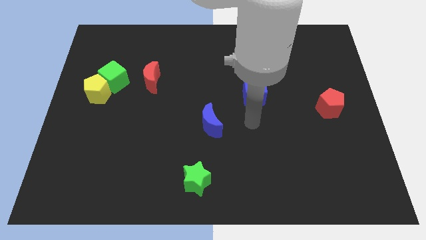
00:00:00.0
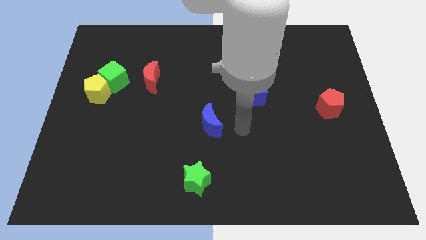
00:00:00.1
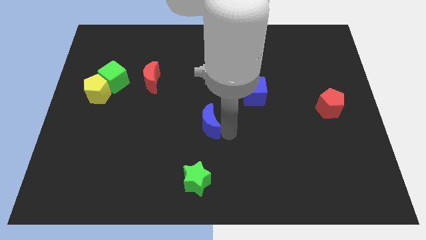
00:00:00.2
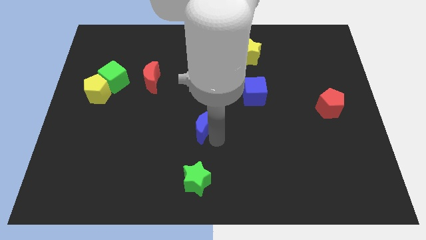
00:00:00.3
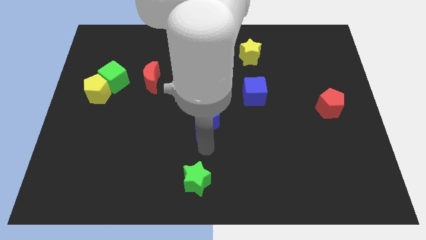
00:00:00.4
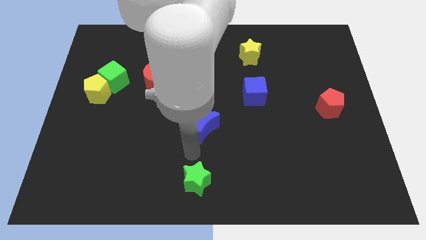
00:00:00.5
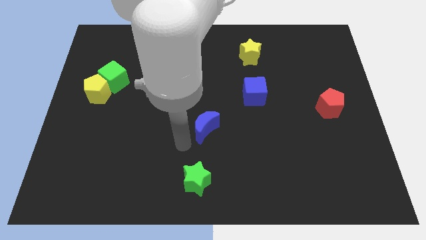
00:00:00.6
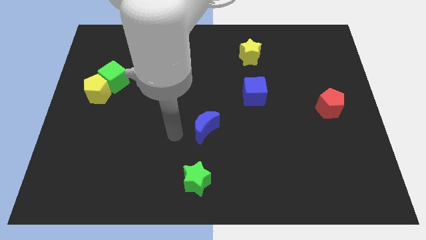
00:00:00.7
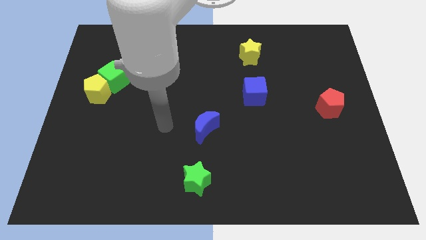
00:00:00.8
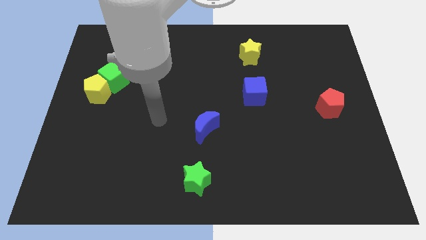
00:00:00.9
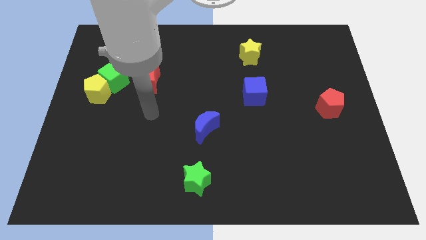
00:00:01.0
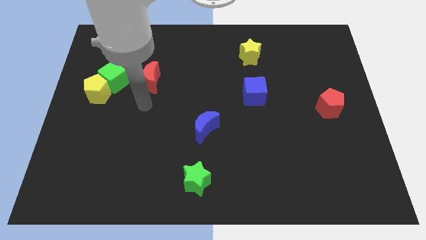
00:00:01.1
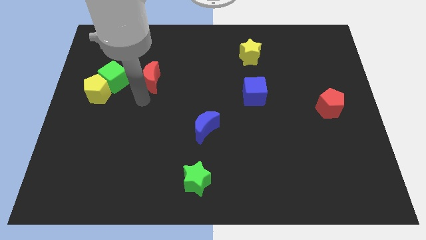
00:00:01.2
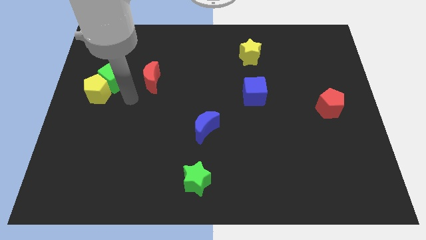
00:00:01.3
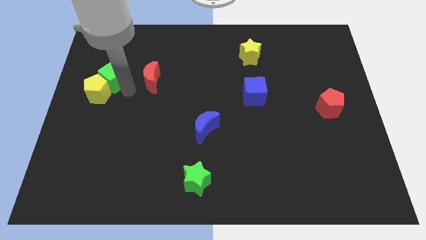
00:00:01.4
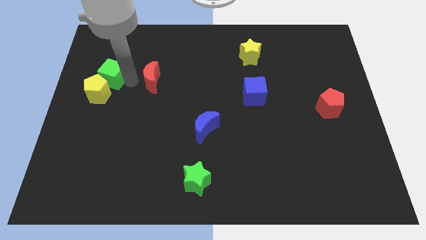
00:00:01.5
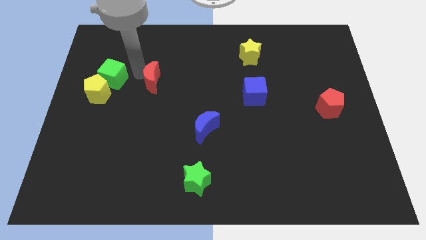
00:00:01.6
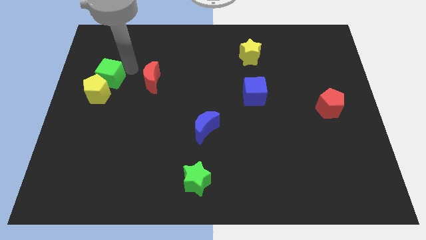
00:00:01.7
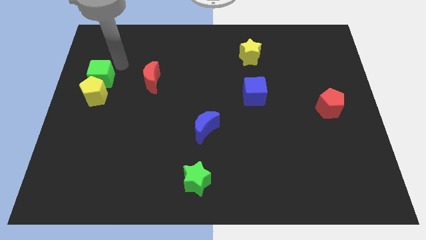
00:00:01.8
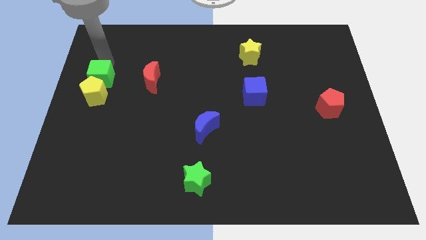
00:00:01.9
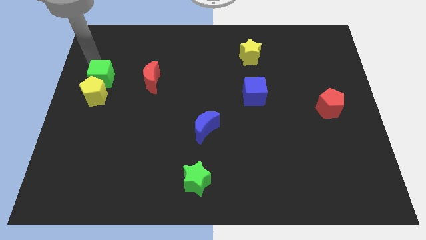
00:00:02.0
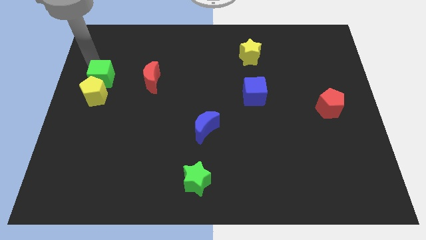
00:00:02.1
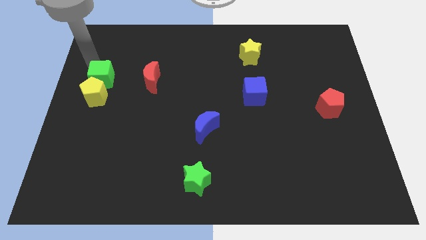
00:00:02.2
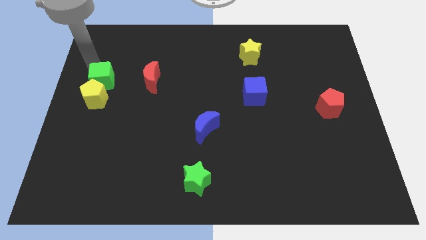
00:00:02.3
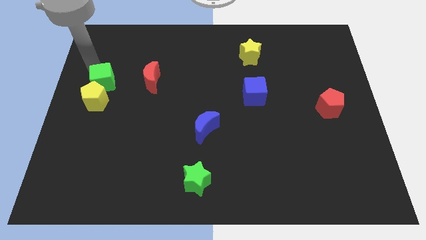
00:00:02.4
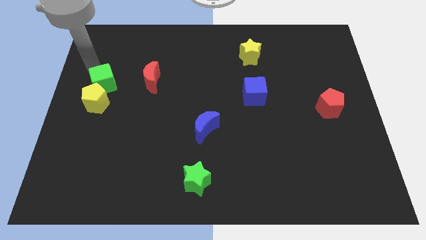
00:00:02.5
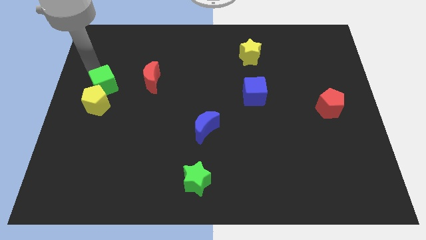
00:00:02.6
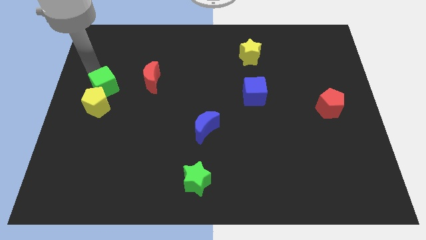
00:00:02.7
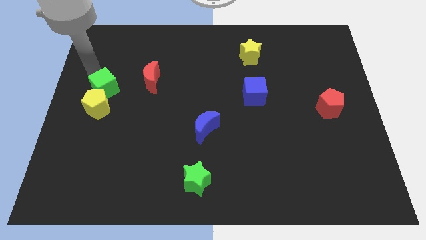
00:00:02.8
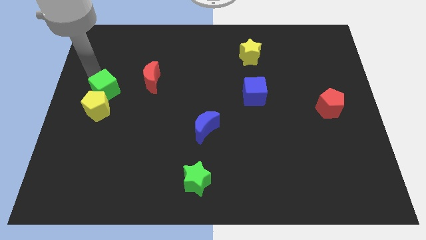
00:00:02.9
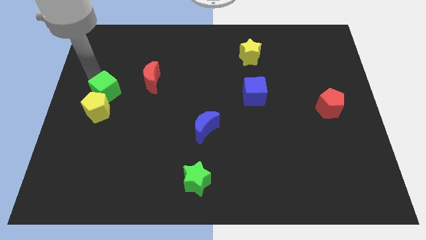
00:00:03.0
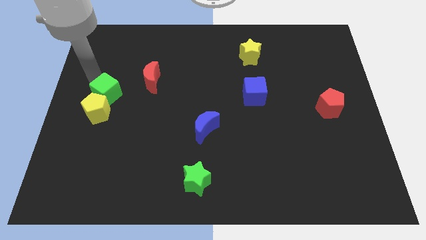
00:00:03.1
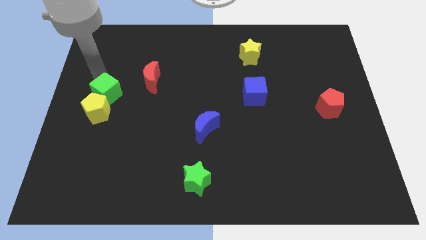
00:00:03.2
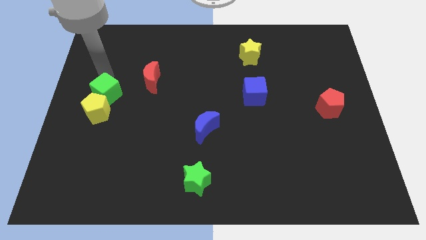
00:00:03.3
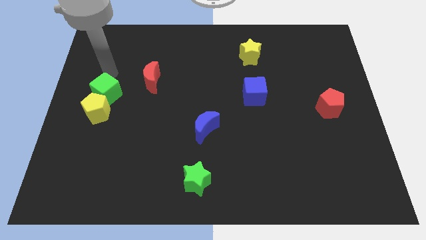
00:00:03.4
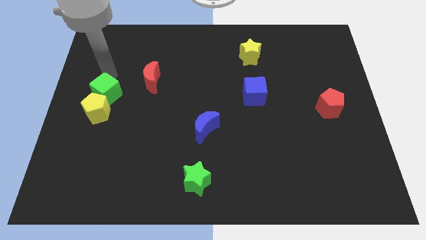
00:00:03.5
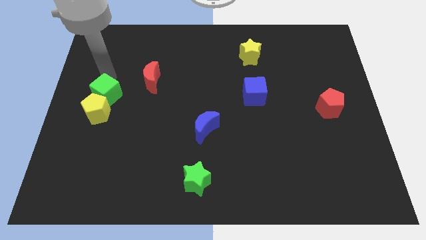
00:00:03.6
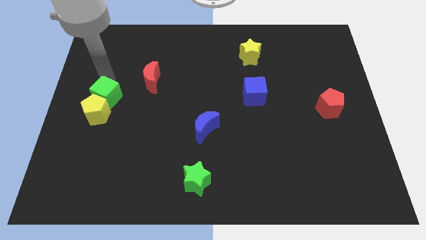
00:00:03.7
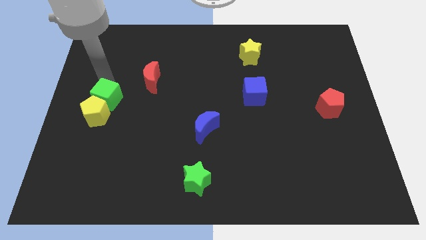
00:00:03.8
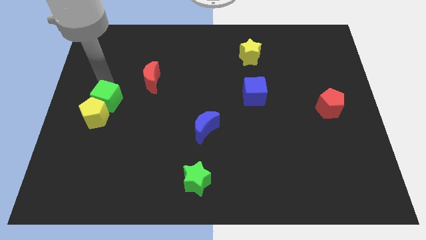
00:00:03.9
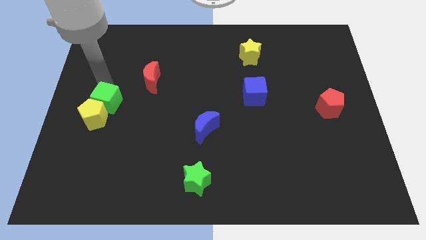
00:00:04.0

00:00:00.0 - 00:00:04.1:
slide the green cube downwards a bit

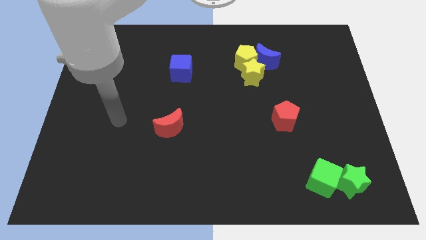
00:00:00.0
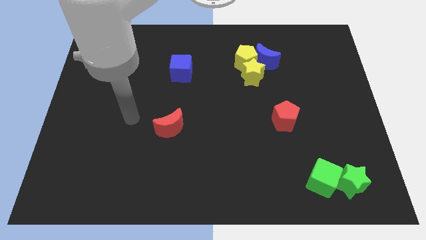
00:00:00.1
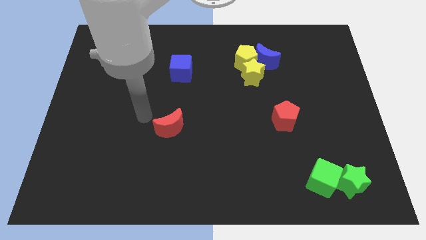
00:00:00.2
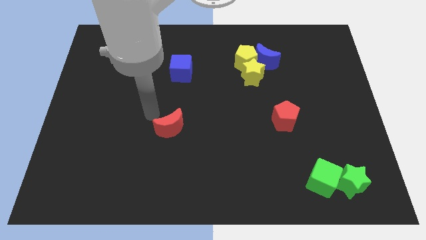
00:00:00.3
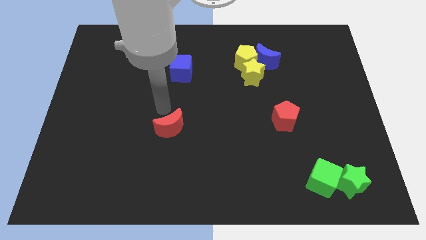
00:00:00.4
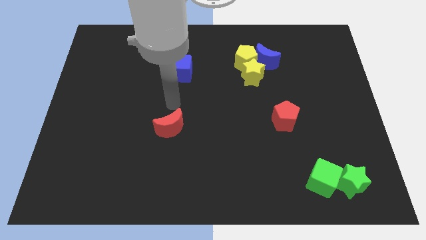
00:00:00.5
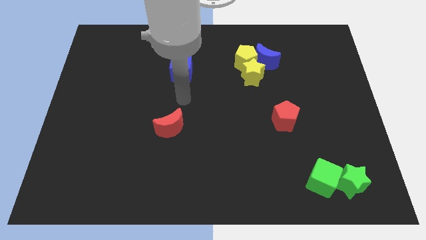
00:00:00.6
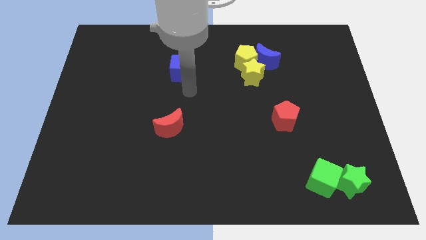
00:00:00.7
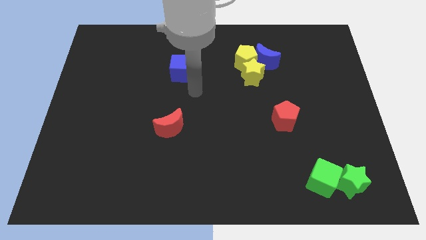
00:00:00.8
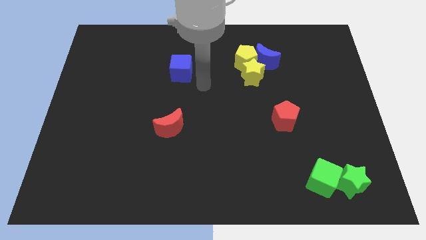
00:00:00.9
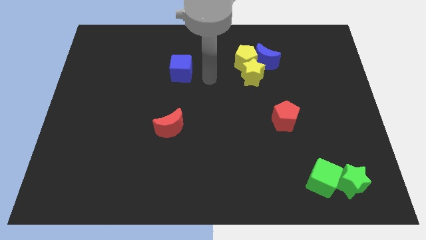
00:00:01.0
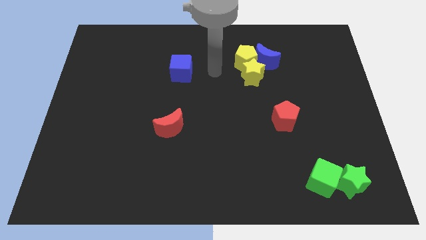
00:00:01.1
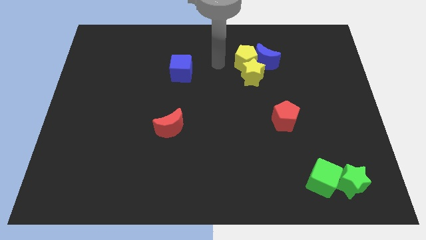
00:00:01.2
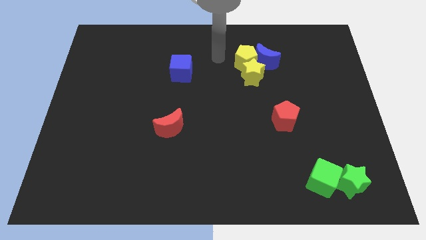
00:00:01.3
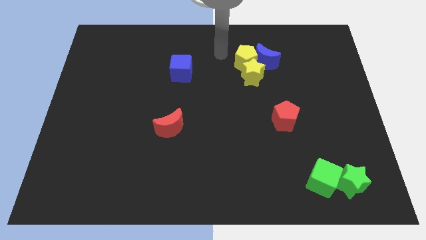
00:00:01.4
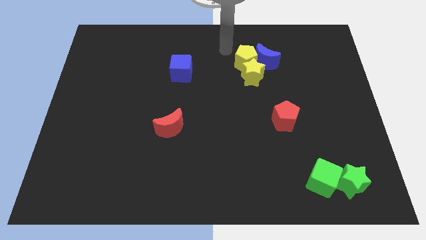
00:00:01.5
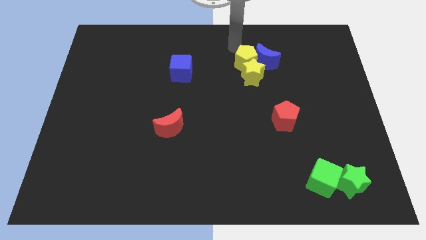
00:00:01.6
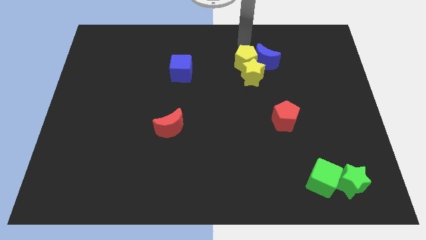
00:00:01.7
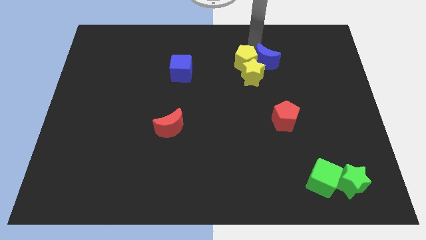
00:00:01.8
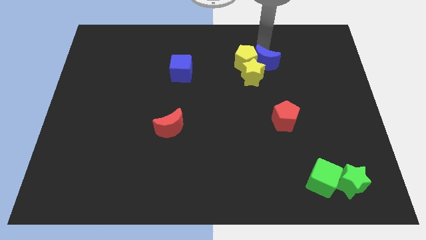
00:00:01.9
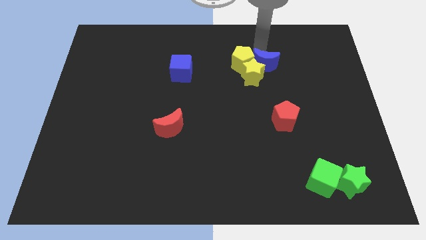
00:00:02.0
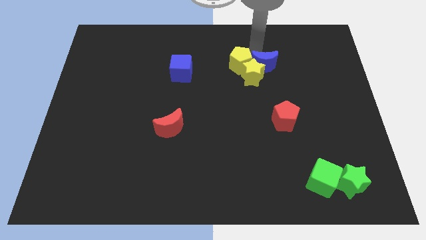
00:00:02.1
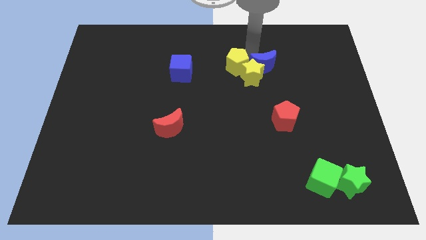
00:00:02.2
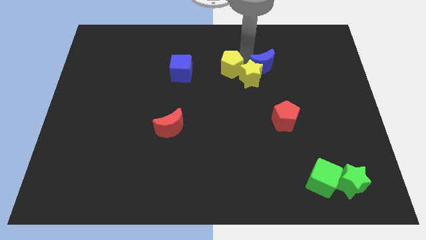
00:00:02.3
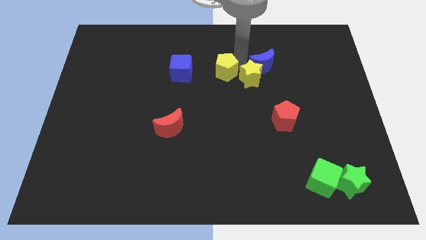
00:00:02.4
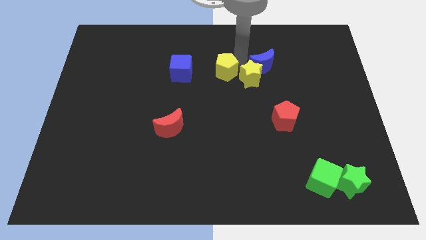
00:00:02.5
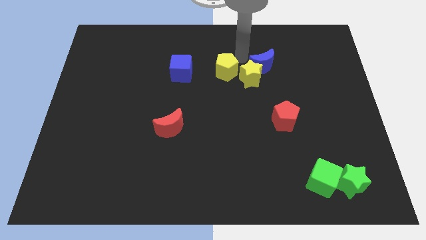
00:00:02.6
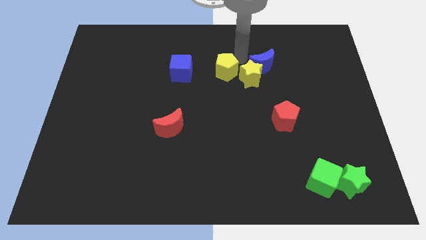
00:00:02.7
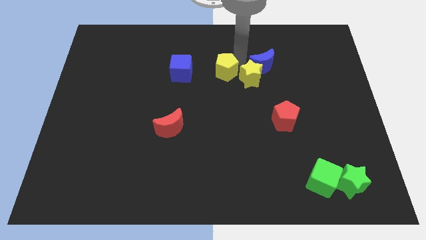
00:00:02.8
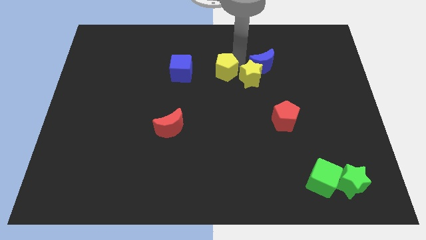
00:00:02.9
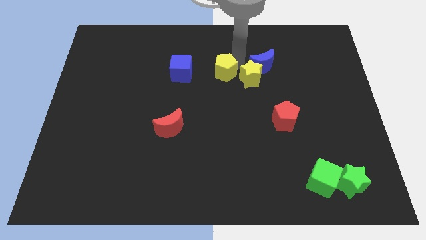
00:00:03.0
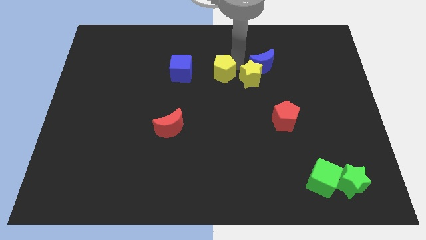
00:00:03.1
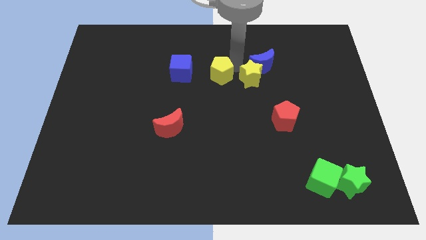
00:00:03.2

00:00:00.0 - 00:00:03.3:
move the yellow pentagon somewhat downwards and to the left

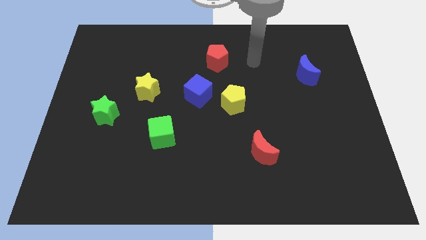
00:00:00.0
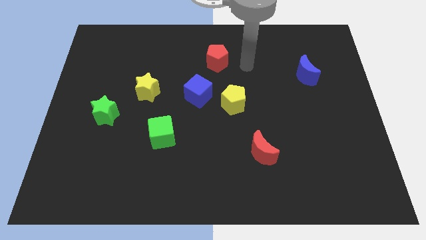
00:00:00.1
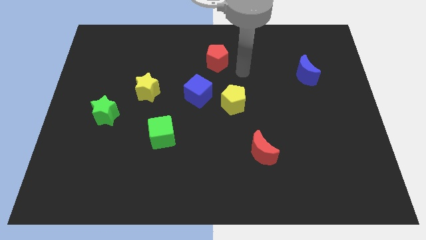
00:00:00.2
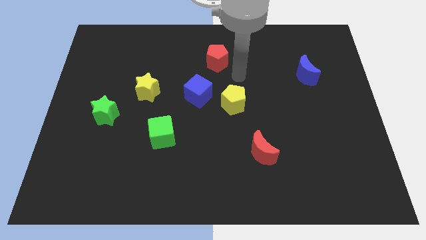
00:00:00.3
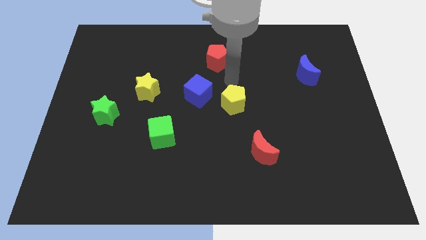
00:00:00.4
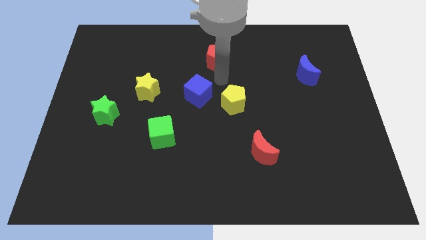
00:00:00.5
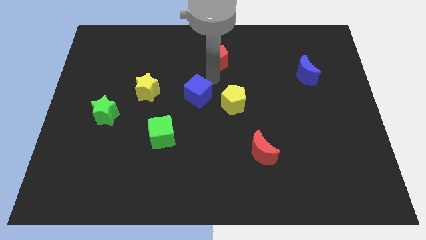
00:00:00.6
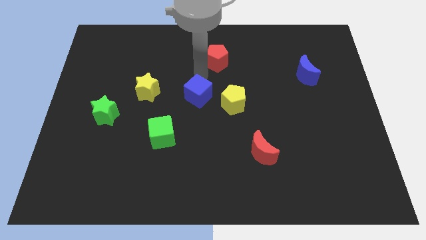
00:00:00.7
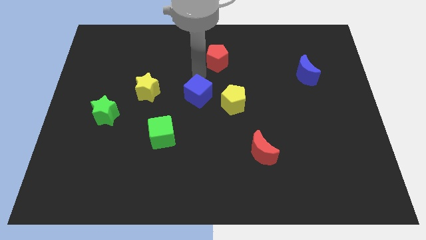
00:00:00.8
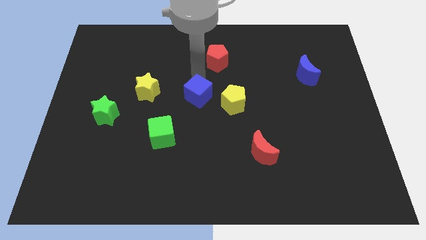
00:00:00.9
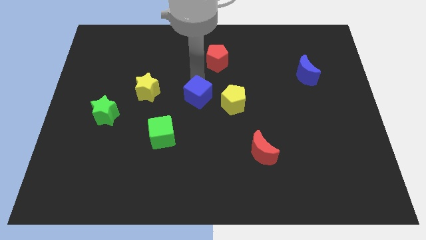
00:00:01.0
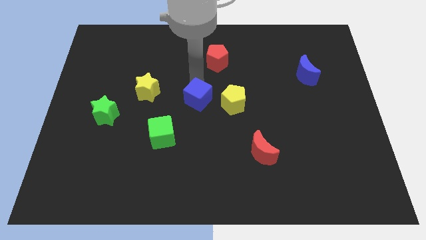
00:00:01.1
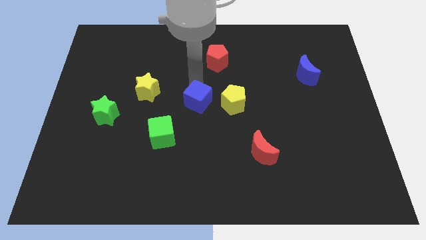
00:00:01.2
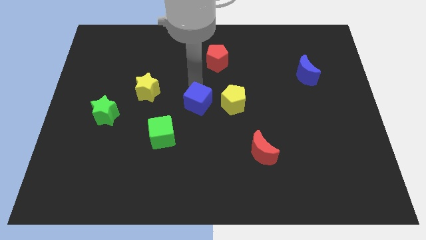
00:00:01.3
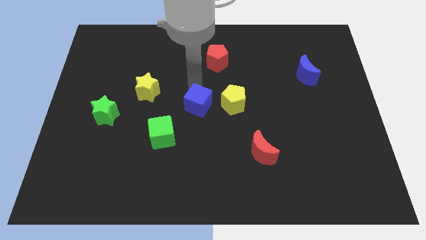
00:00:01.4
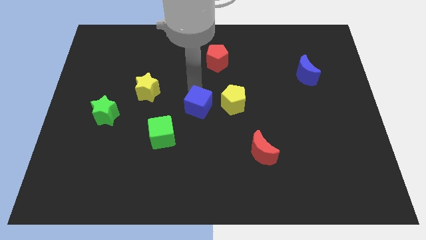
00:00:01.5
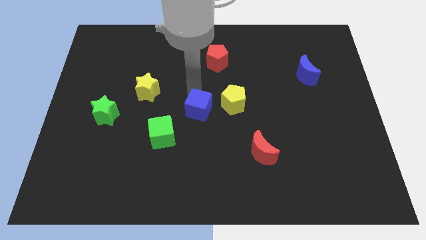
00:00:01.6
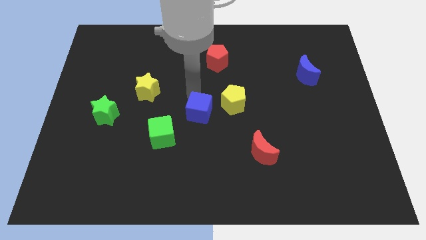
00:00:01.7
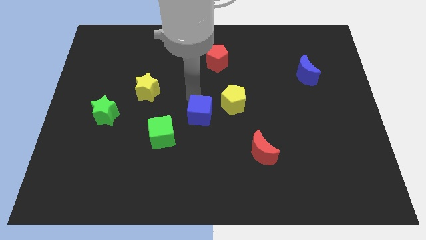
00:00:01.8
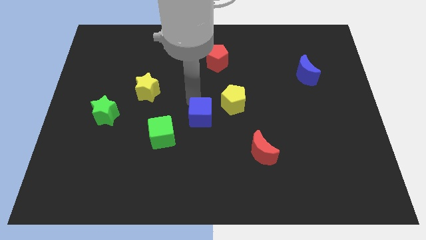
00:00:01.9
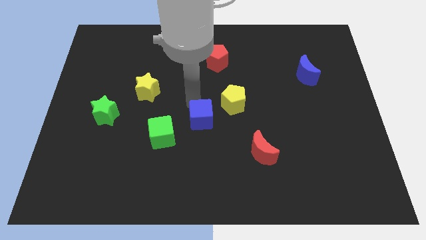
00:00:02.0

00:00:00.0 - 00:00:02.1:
push the blue cube down slightly
